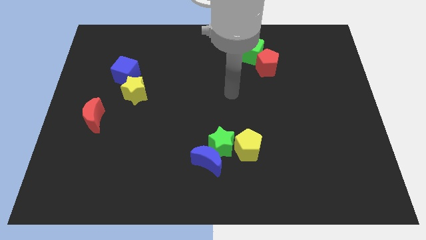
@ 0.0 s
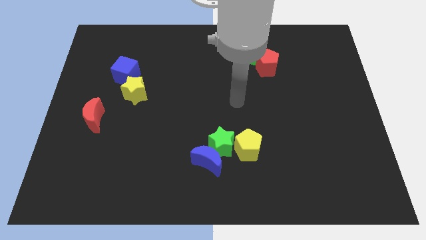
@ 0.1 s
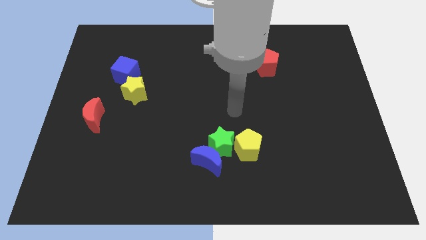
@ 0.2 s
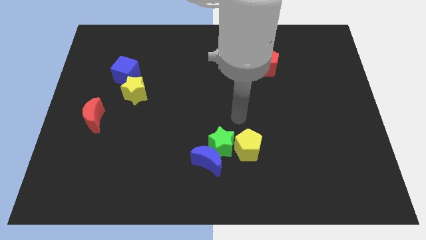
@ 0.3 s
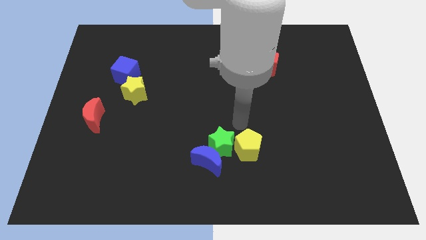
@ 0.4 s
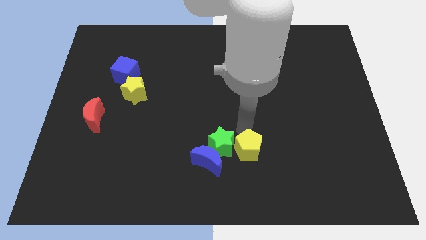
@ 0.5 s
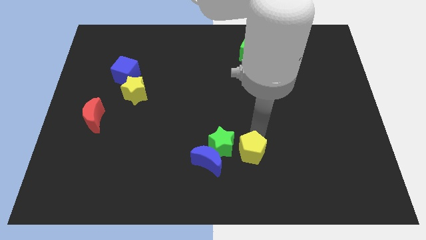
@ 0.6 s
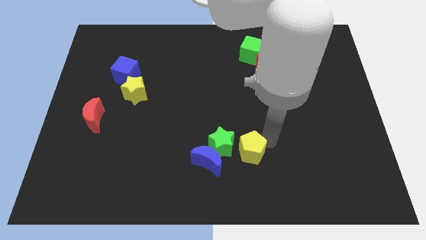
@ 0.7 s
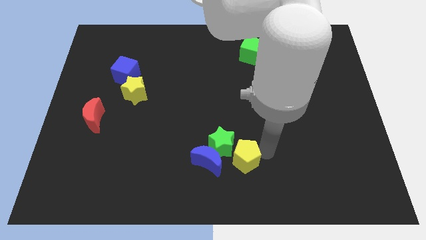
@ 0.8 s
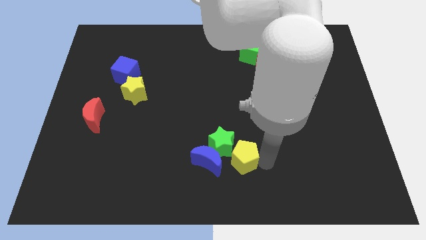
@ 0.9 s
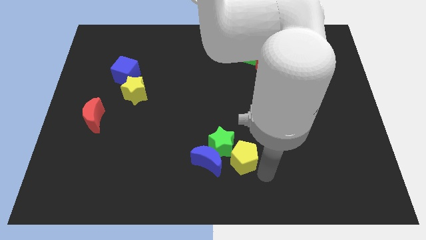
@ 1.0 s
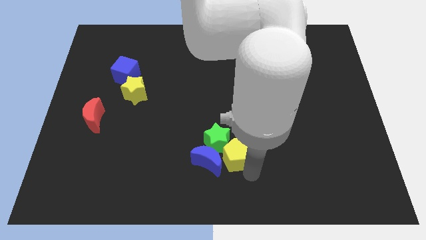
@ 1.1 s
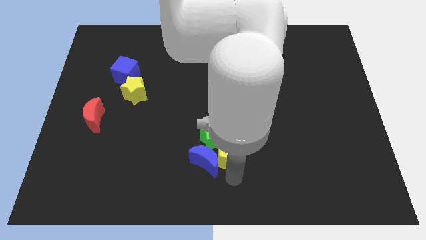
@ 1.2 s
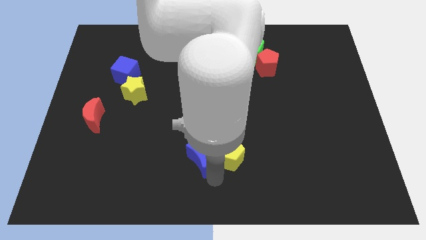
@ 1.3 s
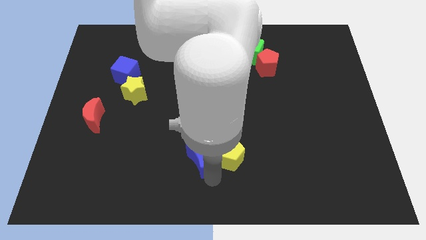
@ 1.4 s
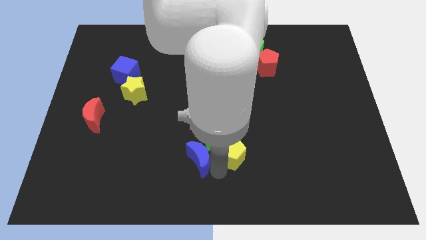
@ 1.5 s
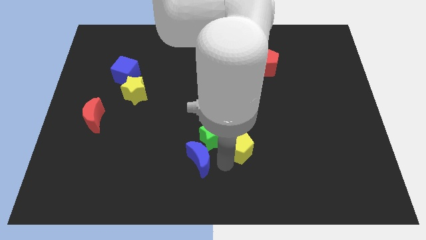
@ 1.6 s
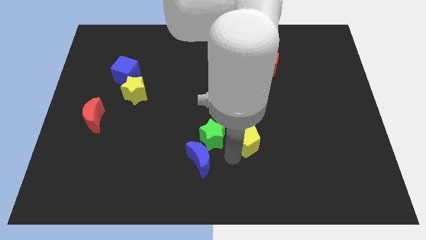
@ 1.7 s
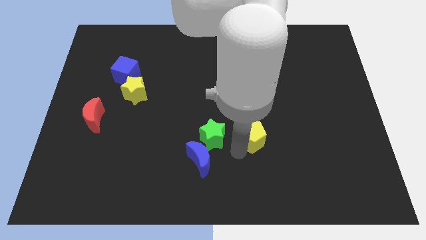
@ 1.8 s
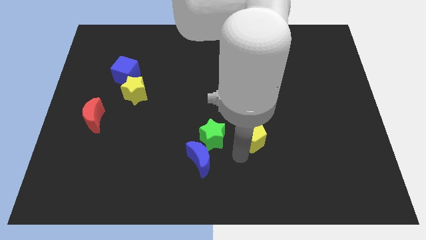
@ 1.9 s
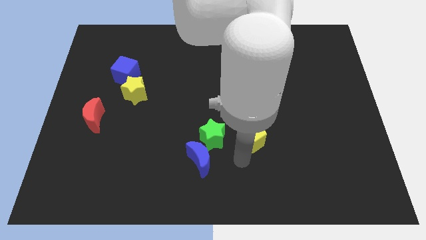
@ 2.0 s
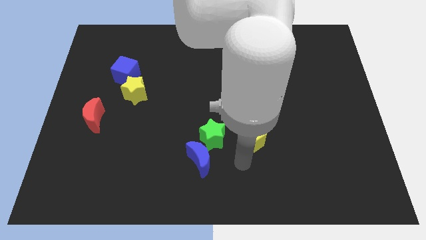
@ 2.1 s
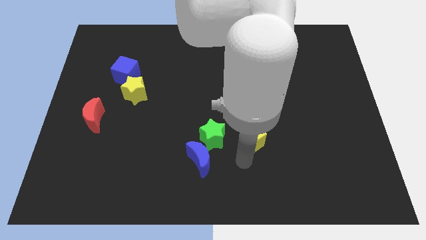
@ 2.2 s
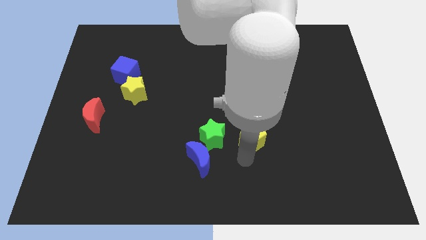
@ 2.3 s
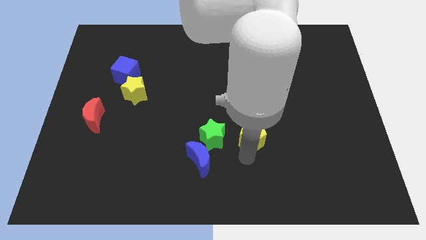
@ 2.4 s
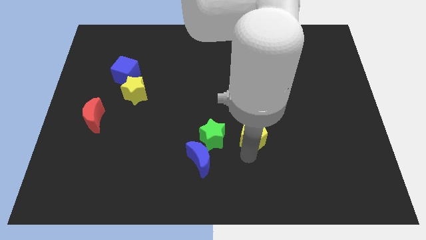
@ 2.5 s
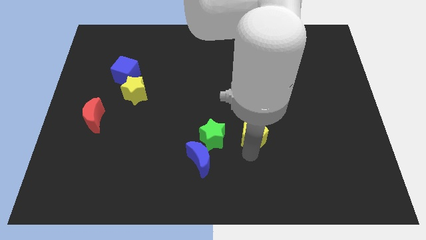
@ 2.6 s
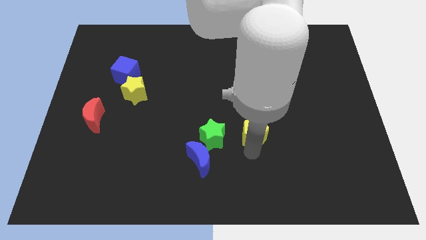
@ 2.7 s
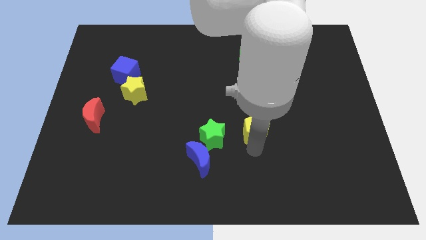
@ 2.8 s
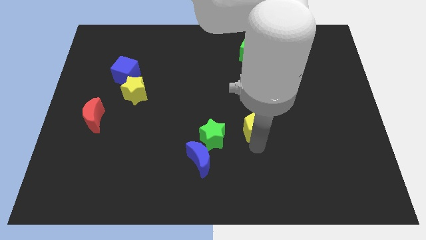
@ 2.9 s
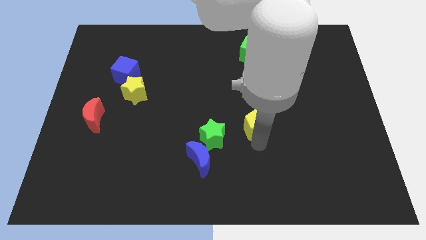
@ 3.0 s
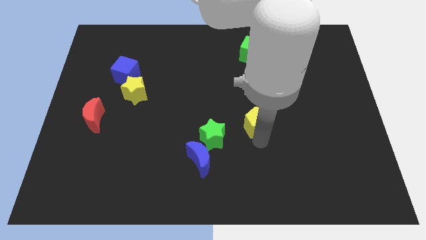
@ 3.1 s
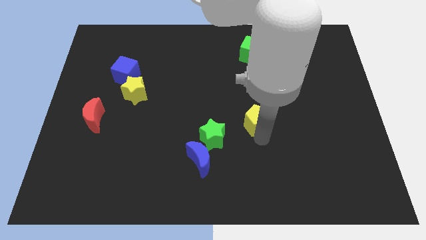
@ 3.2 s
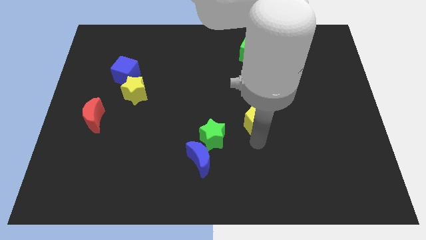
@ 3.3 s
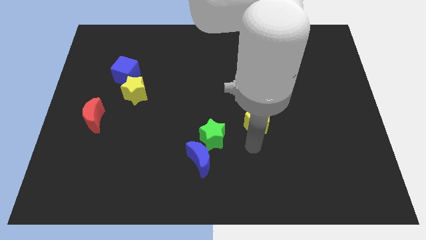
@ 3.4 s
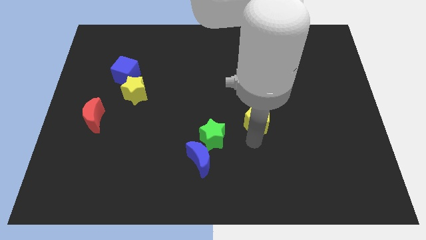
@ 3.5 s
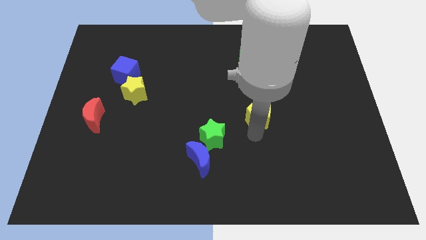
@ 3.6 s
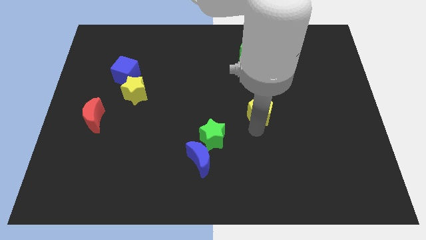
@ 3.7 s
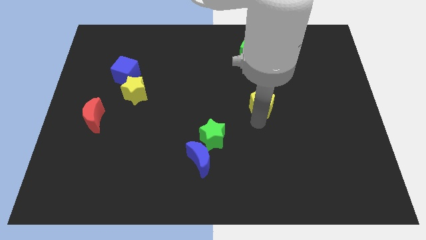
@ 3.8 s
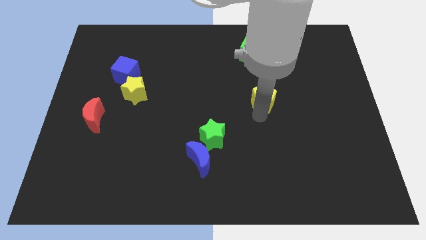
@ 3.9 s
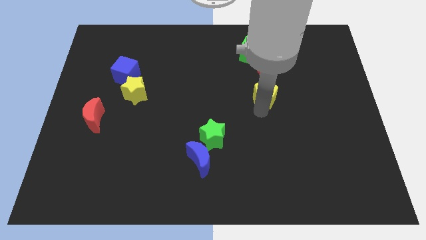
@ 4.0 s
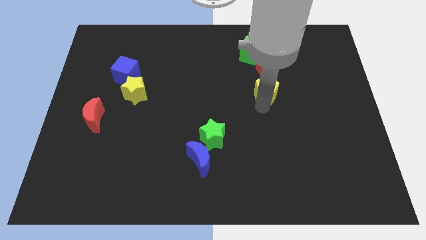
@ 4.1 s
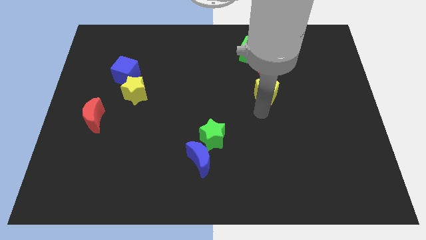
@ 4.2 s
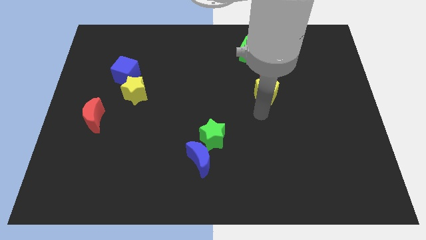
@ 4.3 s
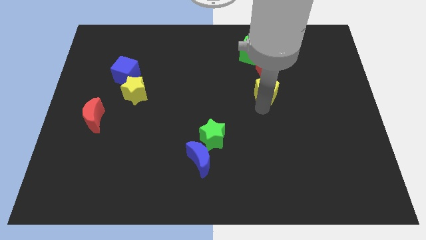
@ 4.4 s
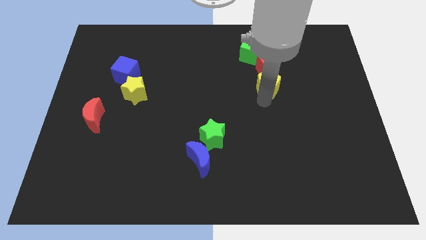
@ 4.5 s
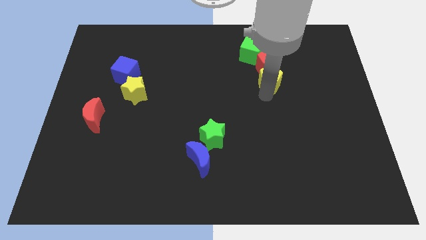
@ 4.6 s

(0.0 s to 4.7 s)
move the yellow pentagon to the bottom right of the green cube

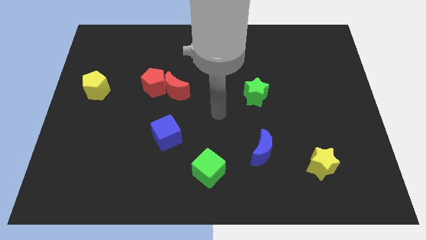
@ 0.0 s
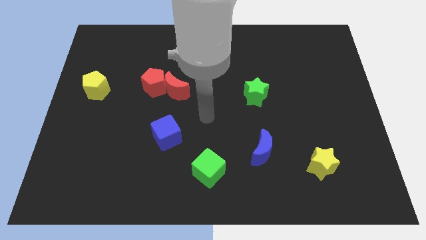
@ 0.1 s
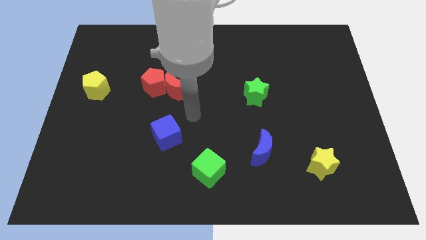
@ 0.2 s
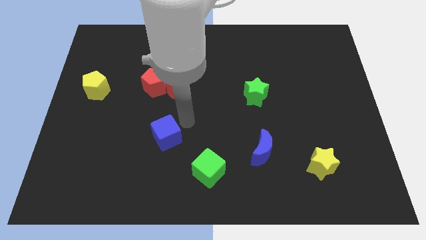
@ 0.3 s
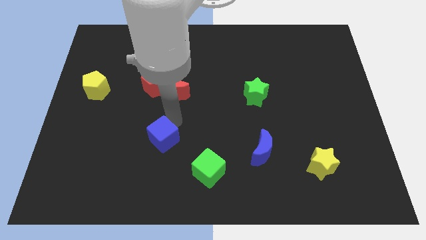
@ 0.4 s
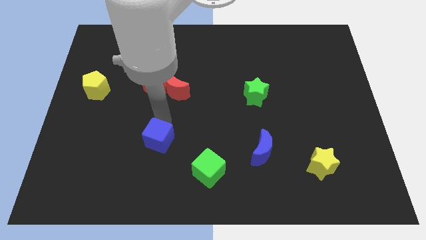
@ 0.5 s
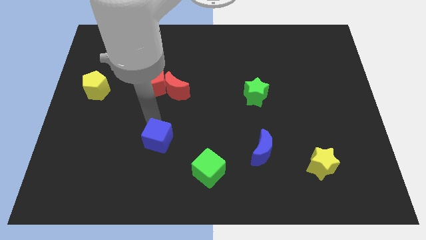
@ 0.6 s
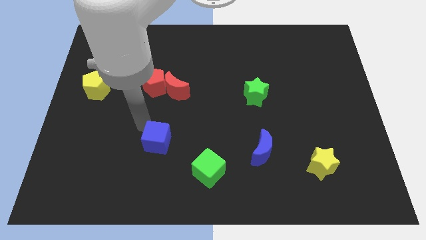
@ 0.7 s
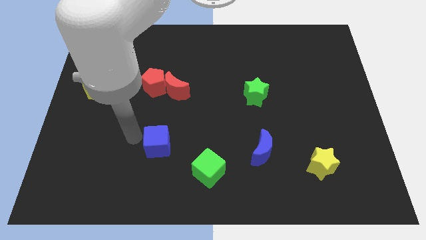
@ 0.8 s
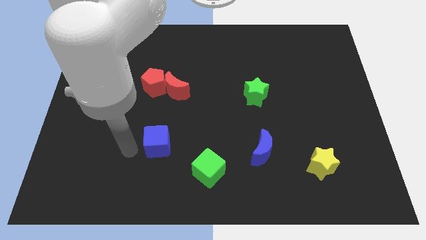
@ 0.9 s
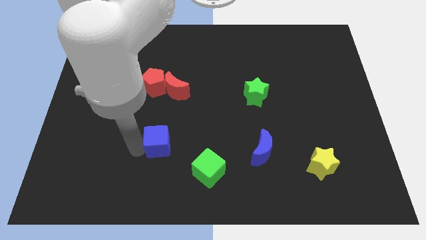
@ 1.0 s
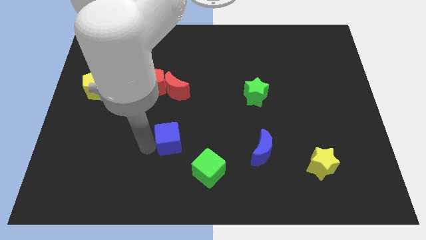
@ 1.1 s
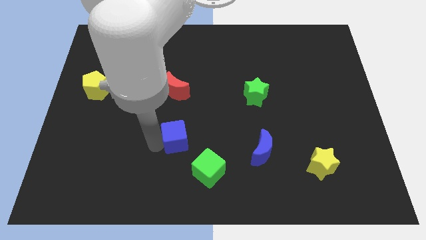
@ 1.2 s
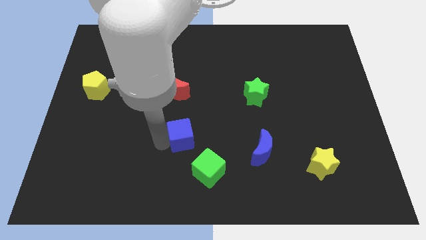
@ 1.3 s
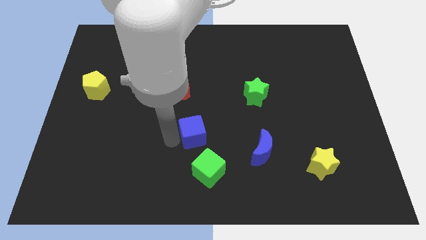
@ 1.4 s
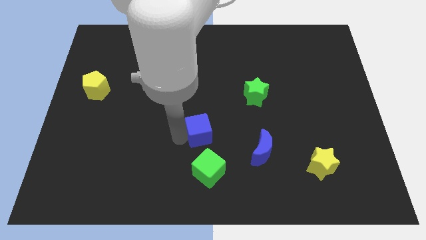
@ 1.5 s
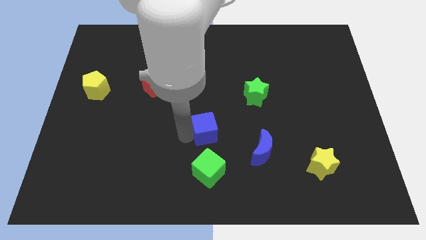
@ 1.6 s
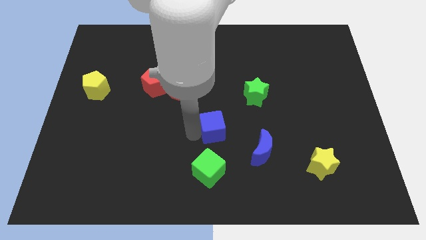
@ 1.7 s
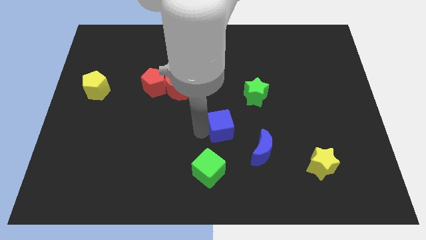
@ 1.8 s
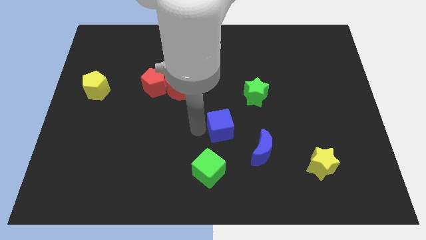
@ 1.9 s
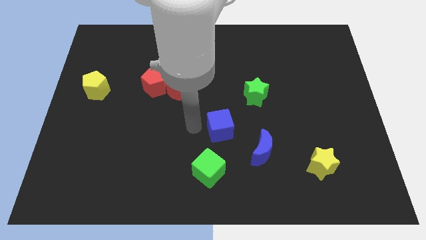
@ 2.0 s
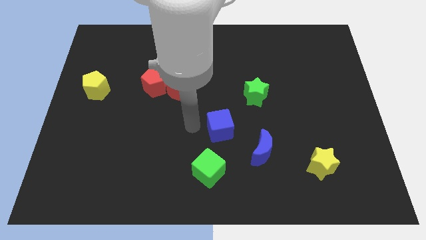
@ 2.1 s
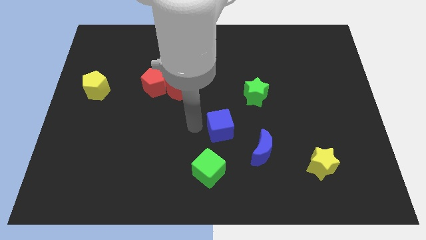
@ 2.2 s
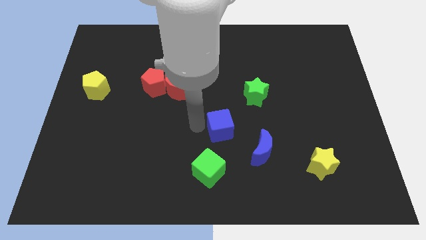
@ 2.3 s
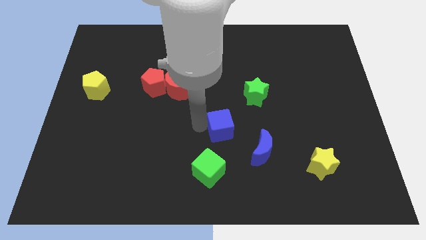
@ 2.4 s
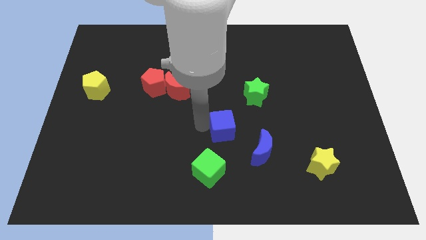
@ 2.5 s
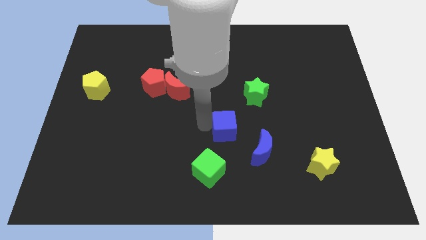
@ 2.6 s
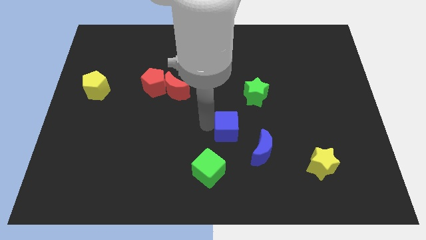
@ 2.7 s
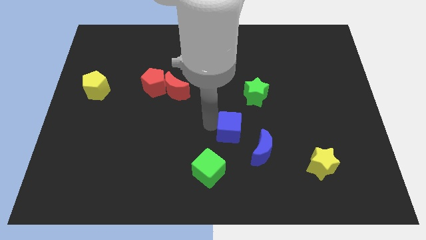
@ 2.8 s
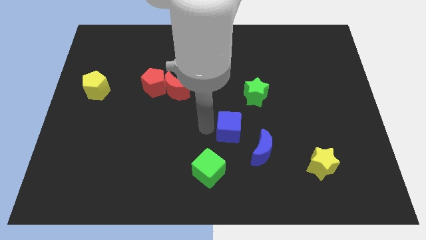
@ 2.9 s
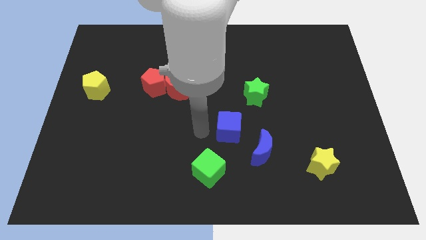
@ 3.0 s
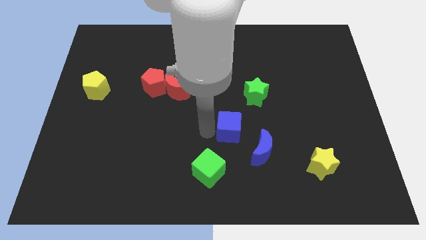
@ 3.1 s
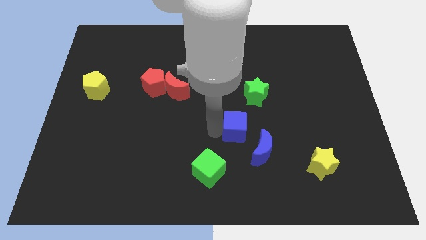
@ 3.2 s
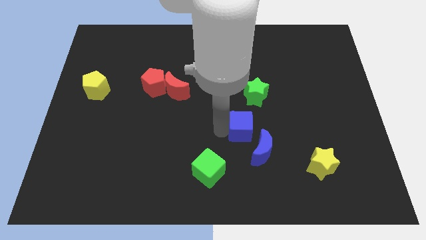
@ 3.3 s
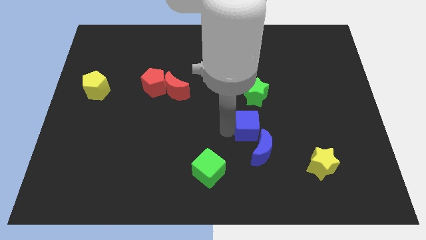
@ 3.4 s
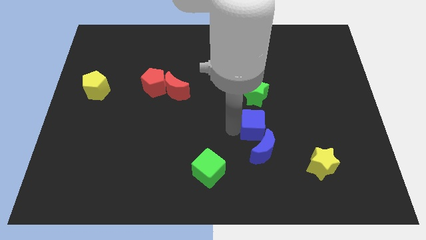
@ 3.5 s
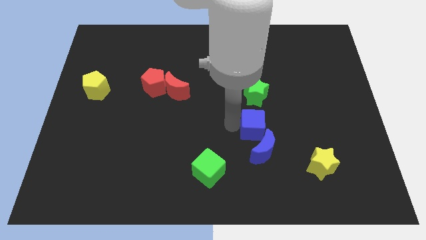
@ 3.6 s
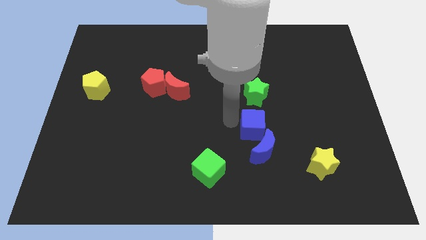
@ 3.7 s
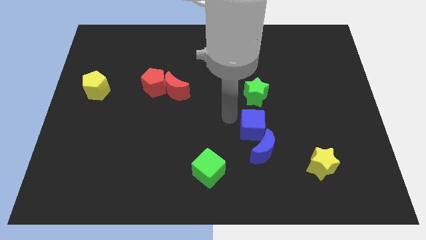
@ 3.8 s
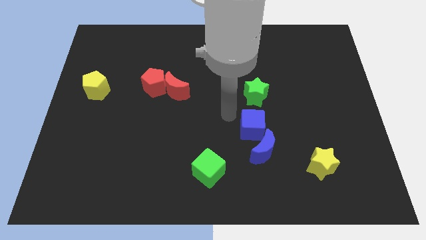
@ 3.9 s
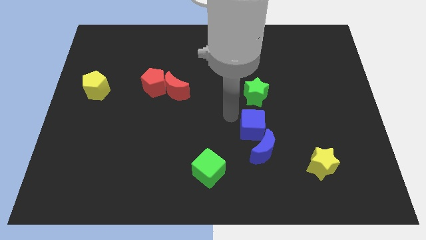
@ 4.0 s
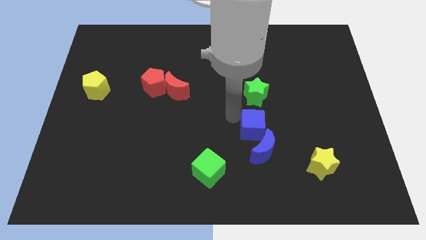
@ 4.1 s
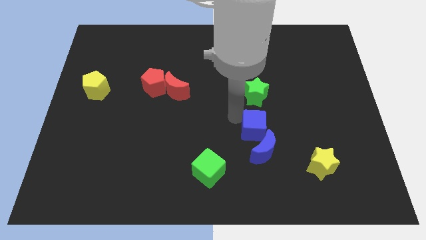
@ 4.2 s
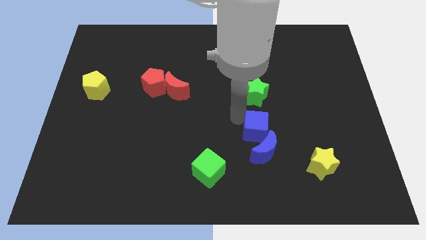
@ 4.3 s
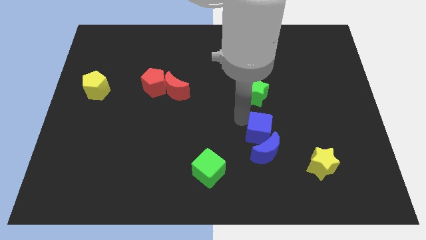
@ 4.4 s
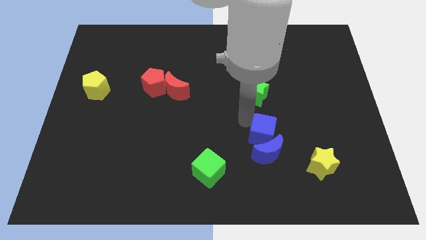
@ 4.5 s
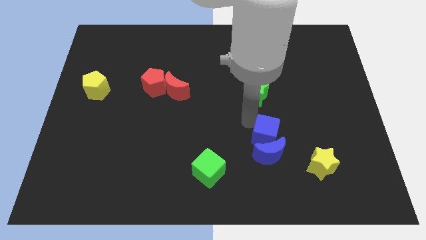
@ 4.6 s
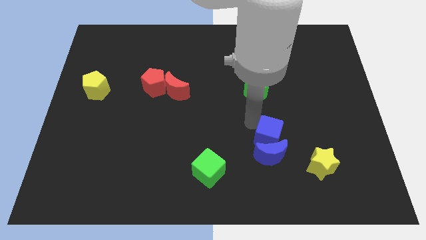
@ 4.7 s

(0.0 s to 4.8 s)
move the blue cube to the top left of the yellow star
